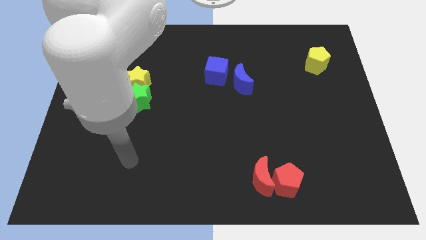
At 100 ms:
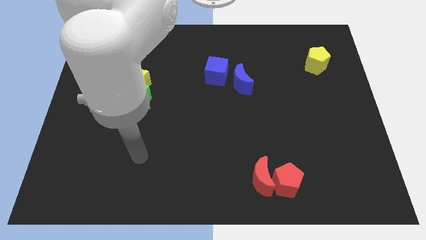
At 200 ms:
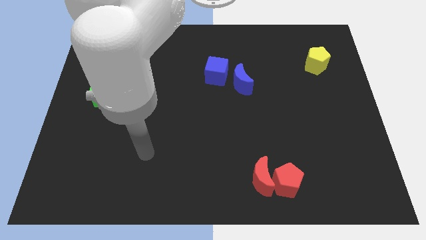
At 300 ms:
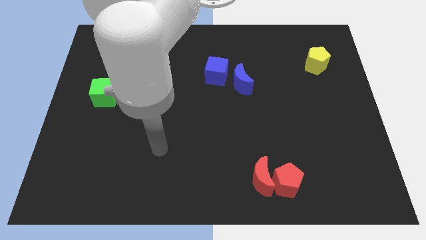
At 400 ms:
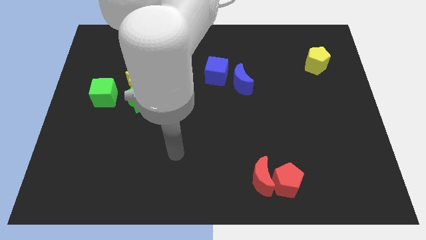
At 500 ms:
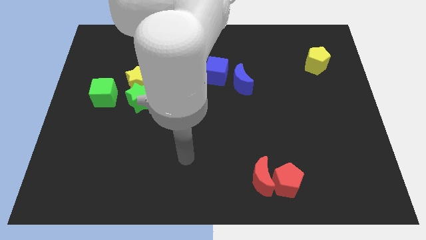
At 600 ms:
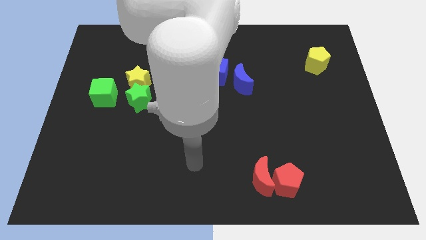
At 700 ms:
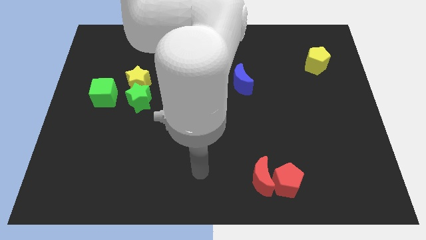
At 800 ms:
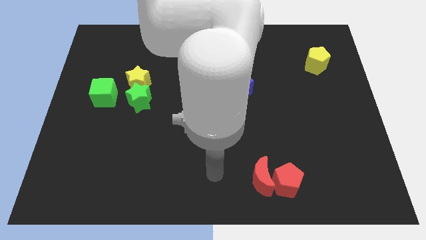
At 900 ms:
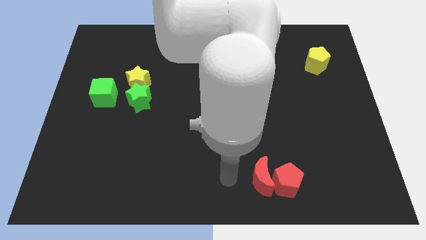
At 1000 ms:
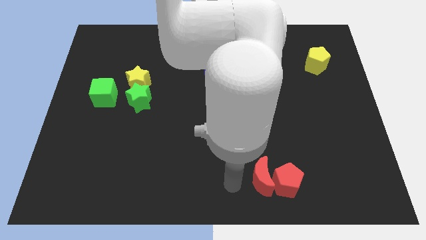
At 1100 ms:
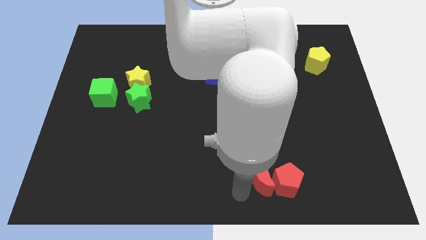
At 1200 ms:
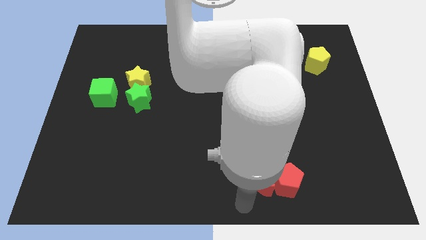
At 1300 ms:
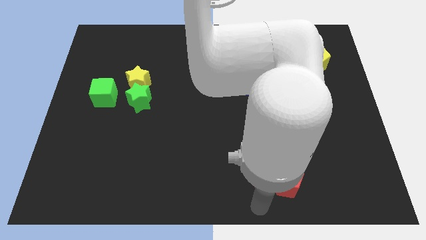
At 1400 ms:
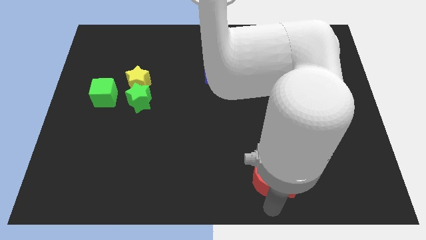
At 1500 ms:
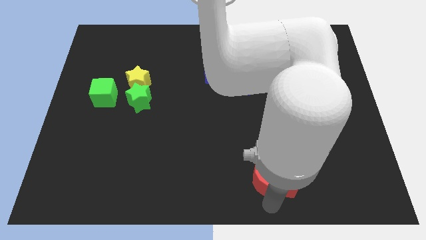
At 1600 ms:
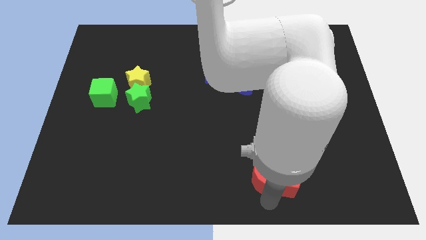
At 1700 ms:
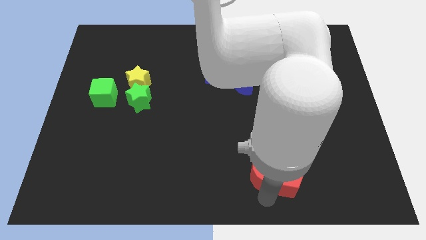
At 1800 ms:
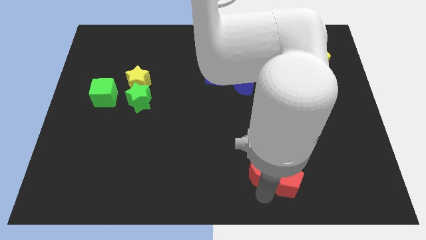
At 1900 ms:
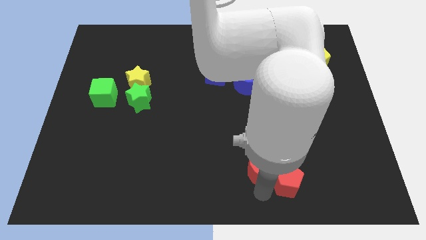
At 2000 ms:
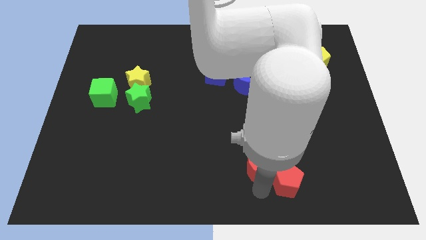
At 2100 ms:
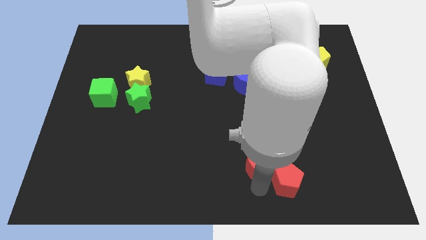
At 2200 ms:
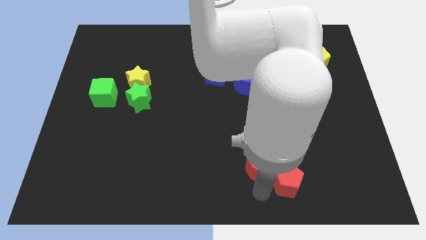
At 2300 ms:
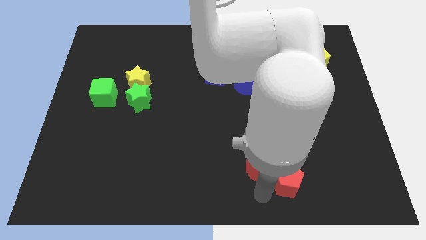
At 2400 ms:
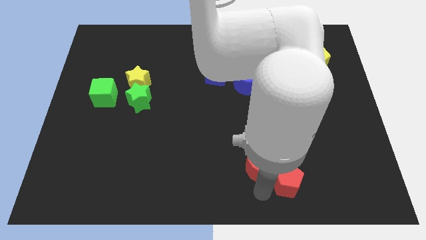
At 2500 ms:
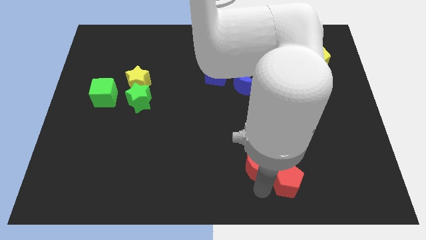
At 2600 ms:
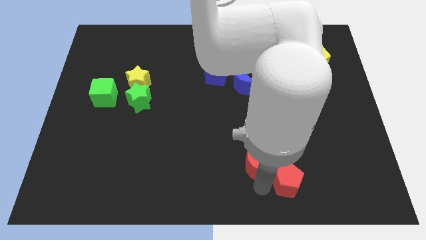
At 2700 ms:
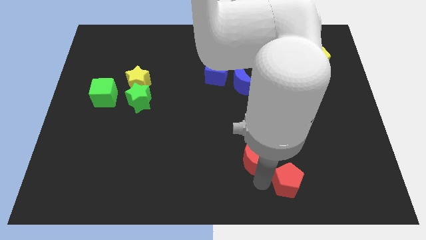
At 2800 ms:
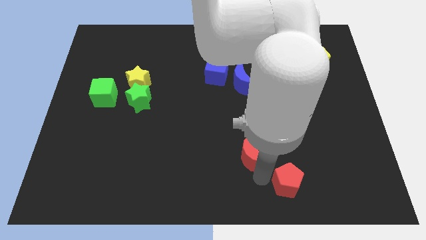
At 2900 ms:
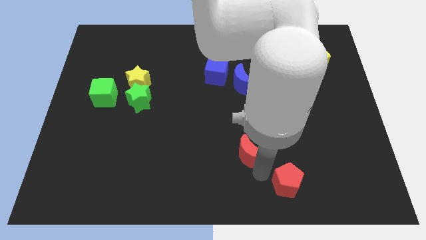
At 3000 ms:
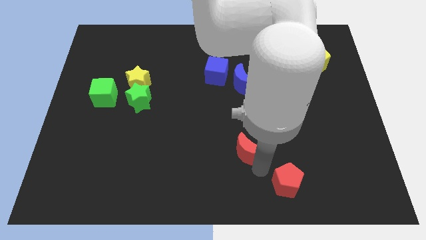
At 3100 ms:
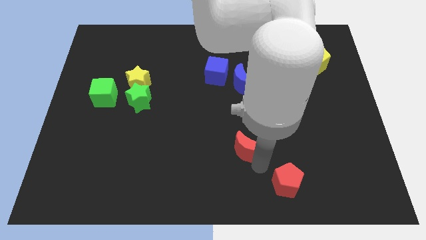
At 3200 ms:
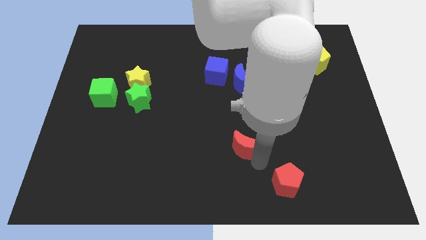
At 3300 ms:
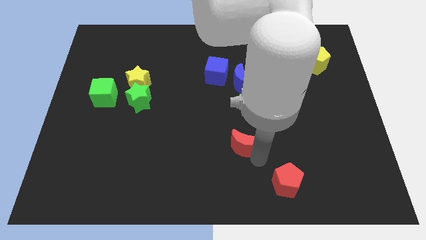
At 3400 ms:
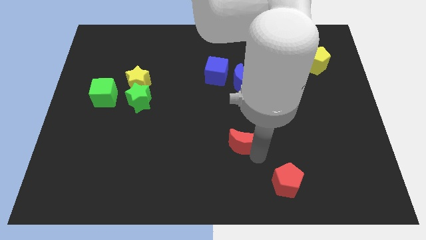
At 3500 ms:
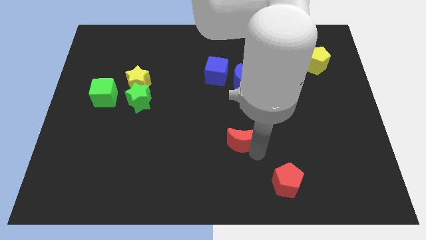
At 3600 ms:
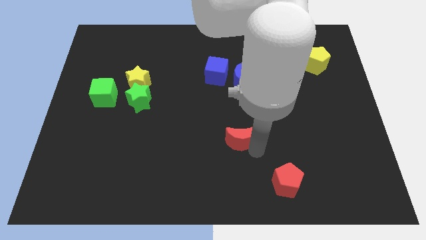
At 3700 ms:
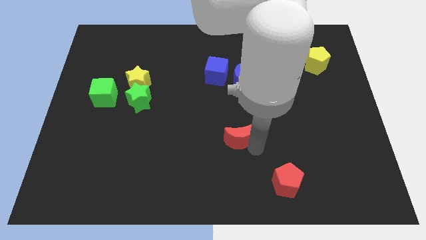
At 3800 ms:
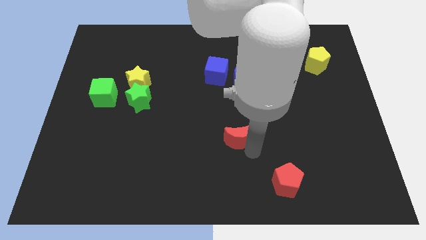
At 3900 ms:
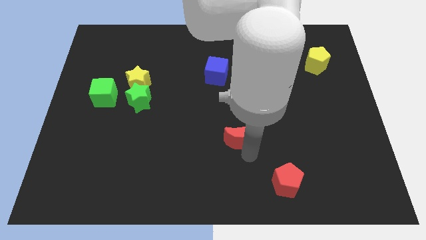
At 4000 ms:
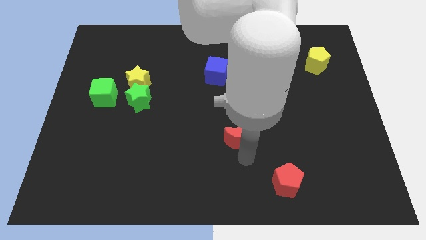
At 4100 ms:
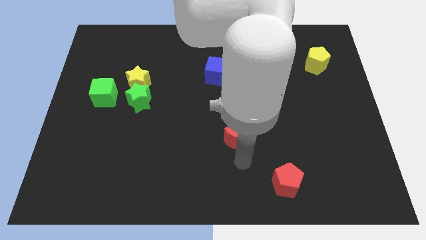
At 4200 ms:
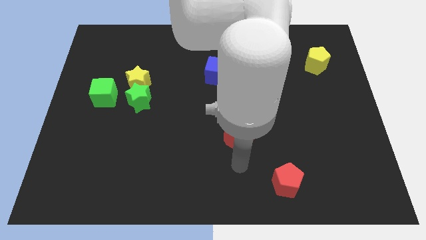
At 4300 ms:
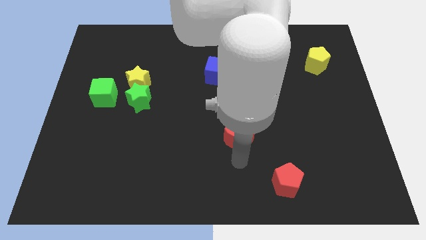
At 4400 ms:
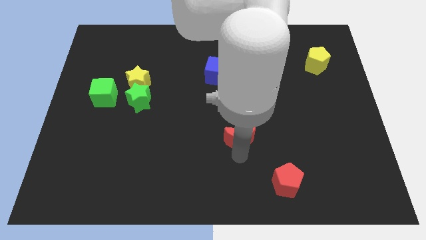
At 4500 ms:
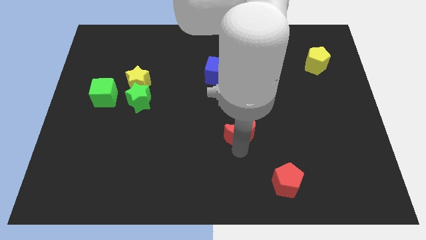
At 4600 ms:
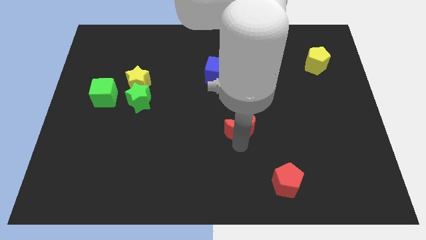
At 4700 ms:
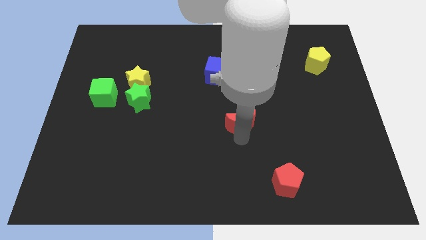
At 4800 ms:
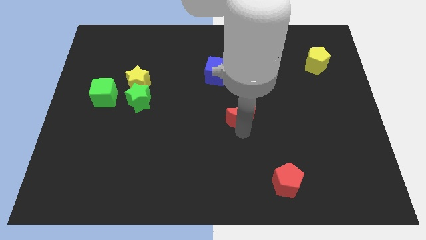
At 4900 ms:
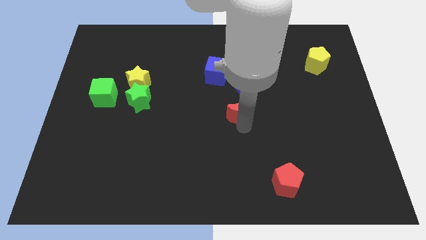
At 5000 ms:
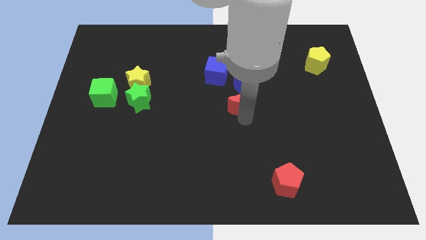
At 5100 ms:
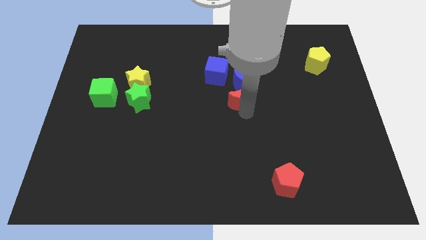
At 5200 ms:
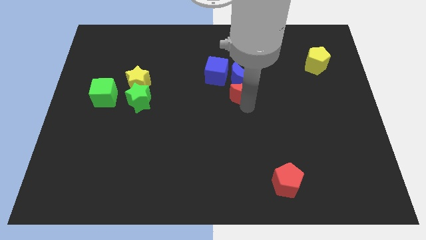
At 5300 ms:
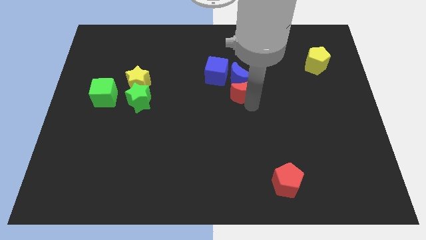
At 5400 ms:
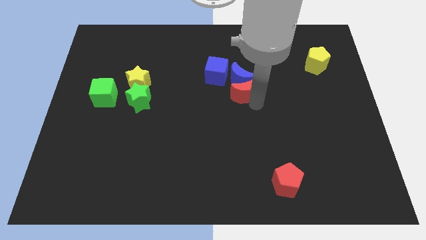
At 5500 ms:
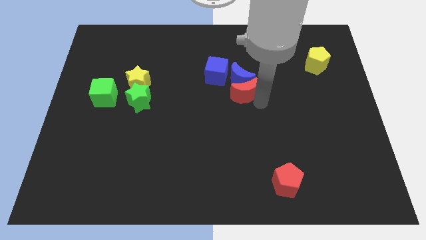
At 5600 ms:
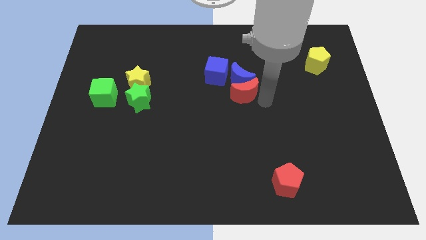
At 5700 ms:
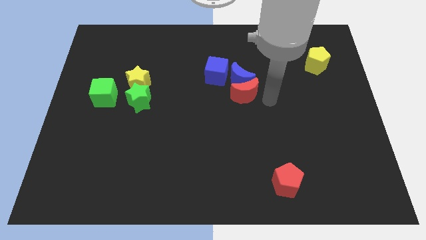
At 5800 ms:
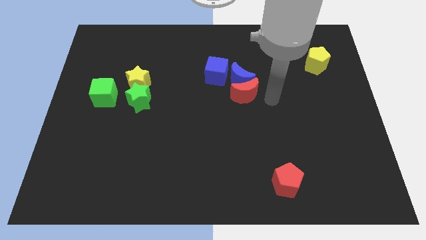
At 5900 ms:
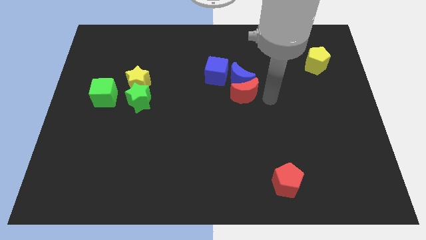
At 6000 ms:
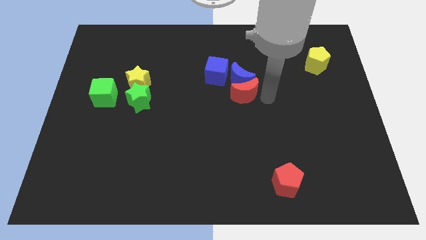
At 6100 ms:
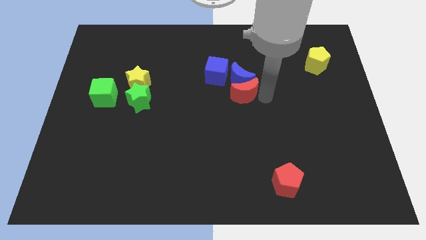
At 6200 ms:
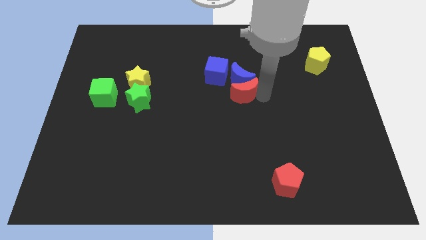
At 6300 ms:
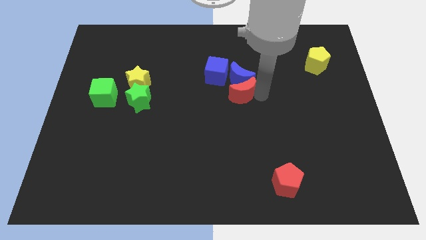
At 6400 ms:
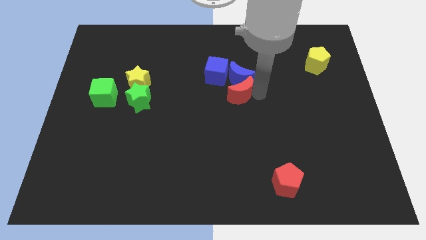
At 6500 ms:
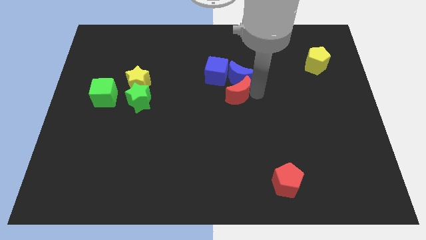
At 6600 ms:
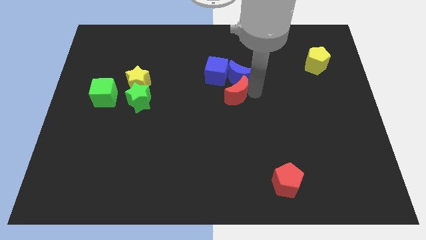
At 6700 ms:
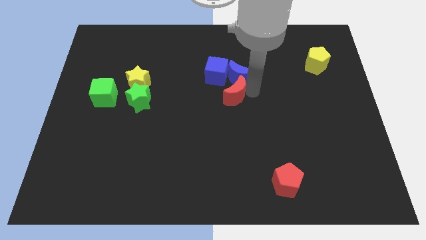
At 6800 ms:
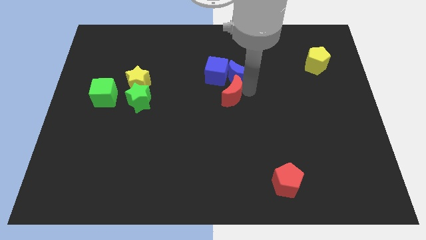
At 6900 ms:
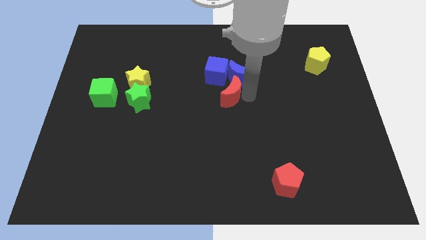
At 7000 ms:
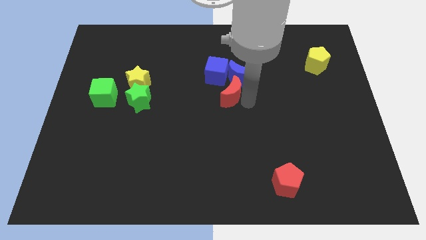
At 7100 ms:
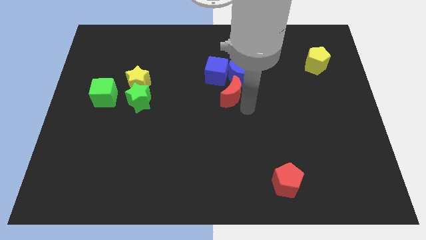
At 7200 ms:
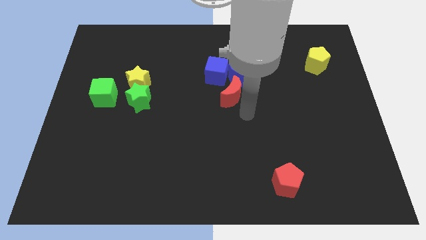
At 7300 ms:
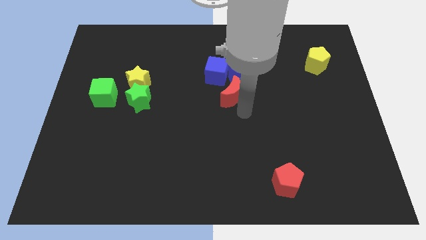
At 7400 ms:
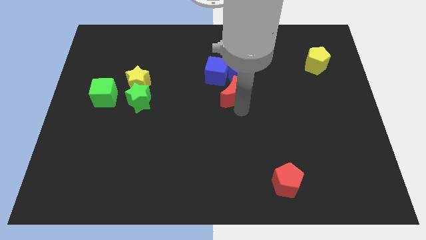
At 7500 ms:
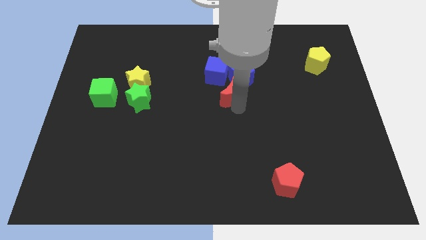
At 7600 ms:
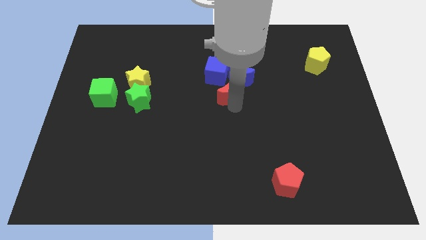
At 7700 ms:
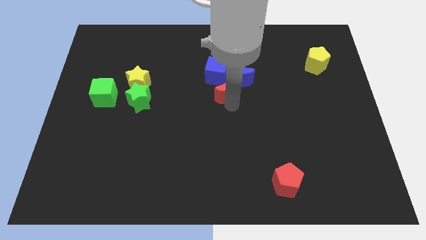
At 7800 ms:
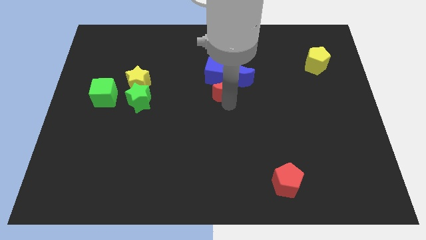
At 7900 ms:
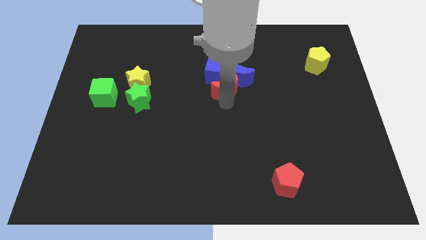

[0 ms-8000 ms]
slide the red moon towards the blue cube

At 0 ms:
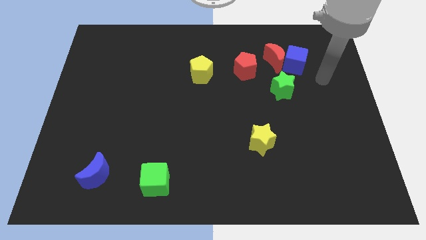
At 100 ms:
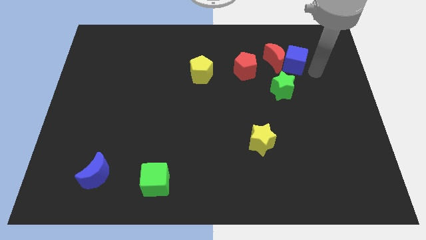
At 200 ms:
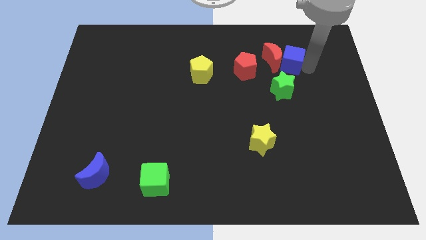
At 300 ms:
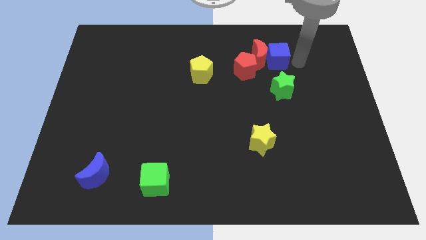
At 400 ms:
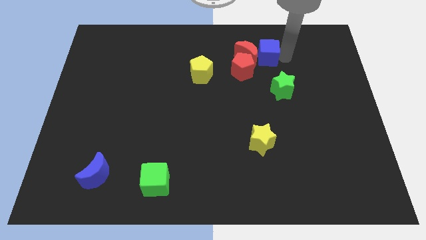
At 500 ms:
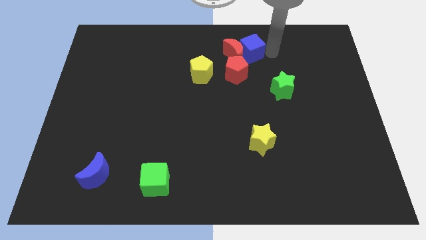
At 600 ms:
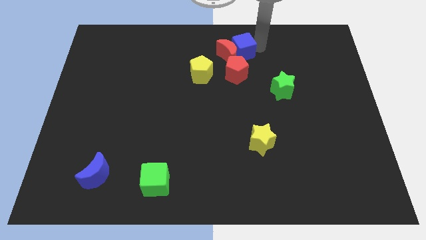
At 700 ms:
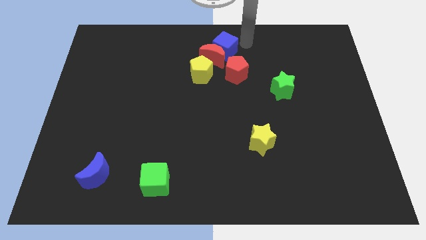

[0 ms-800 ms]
push the red moon next to the yellow pentagon
